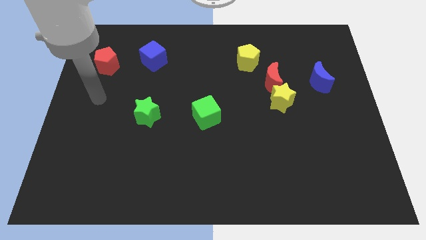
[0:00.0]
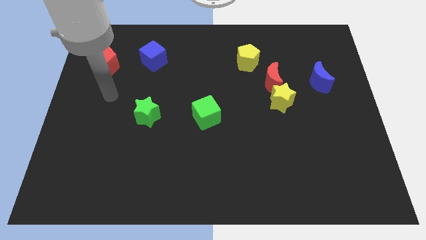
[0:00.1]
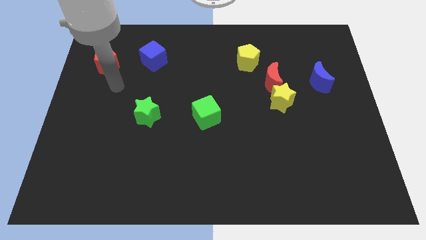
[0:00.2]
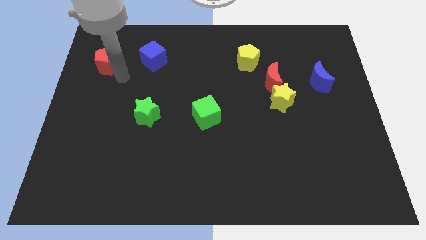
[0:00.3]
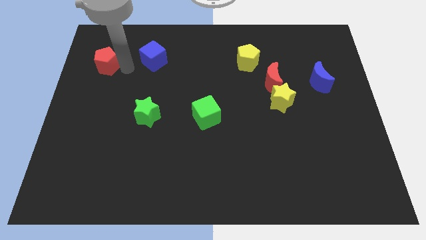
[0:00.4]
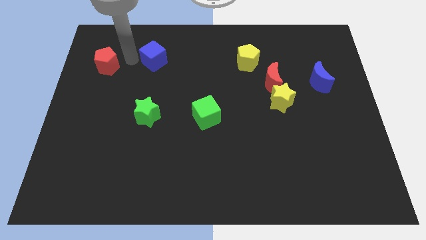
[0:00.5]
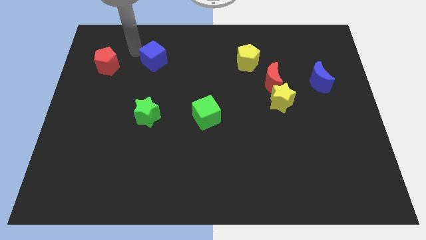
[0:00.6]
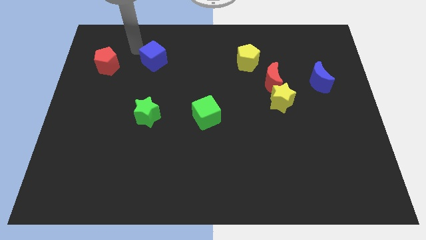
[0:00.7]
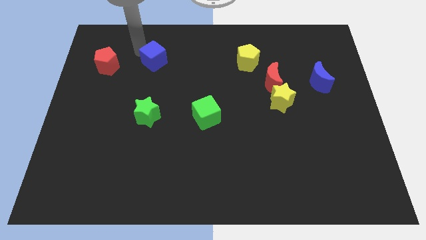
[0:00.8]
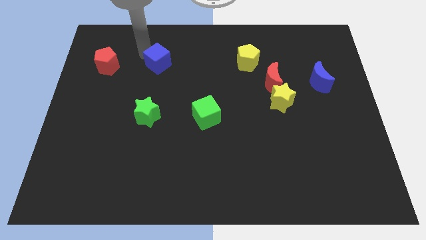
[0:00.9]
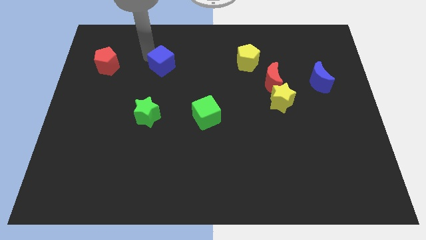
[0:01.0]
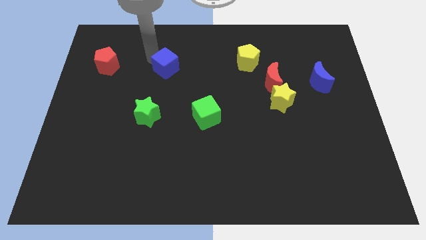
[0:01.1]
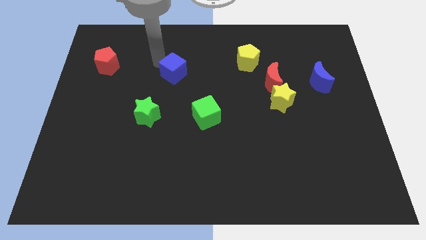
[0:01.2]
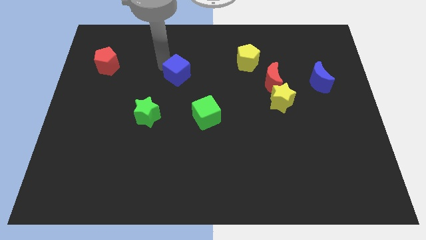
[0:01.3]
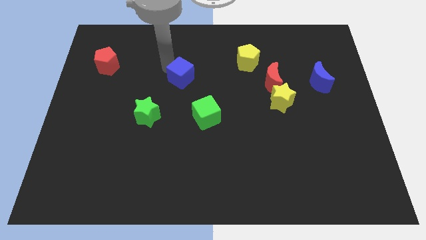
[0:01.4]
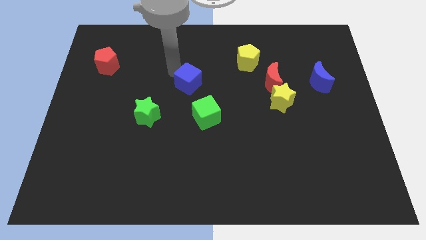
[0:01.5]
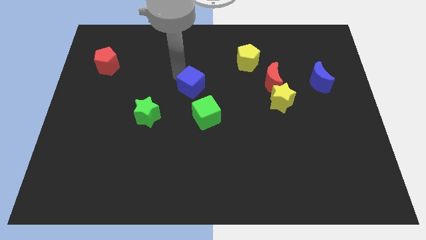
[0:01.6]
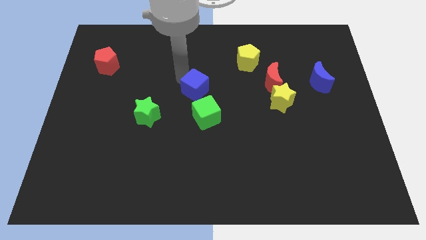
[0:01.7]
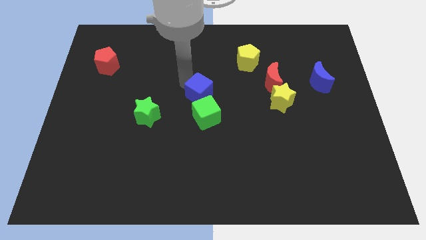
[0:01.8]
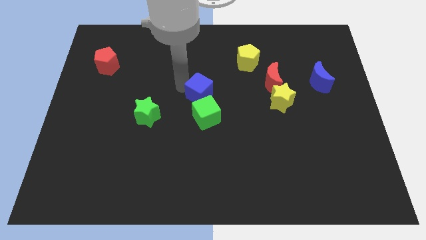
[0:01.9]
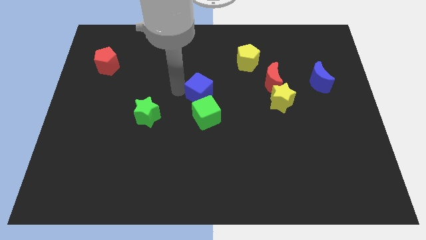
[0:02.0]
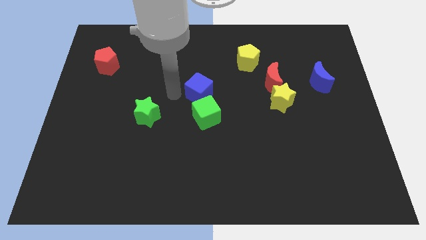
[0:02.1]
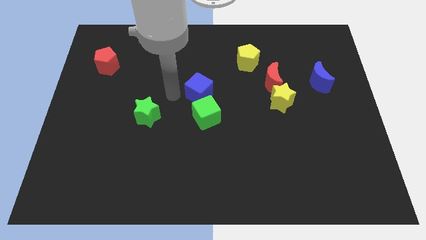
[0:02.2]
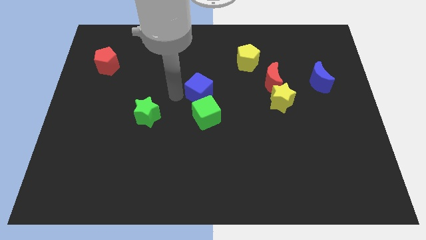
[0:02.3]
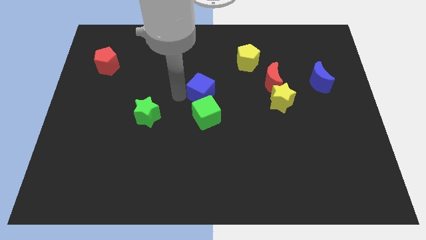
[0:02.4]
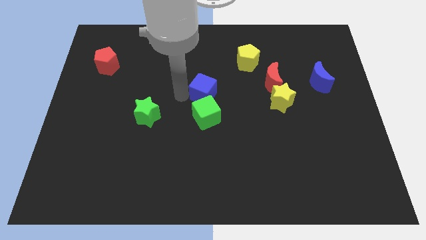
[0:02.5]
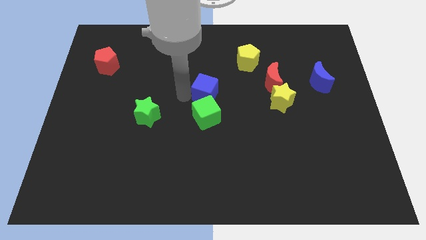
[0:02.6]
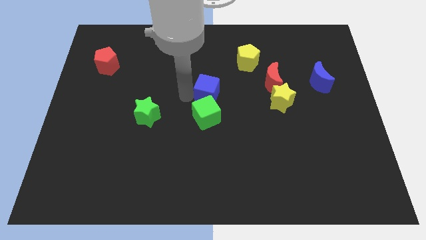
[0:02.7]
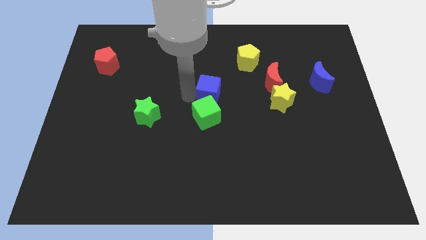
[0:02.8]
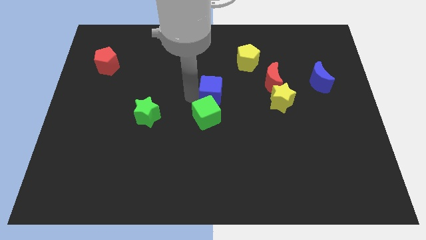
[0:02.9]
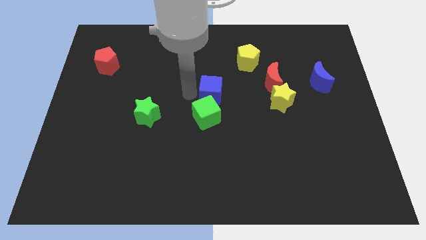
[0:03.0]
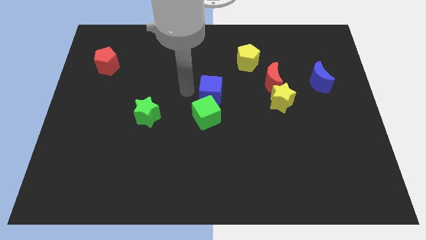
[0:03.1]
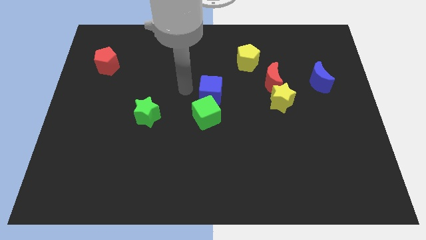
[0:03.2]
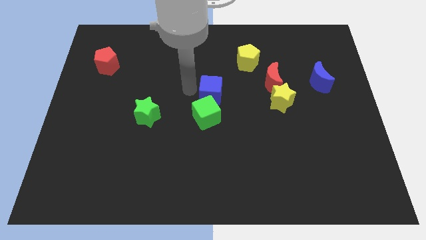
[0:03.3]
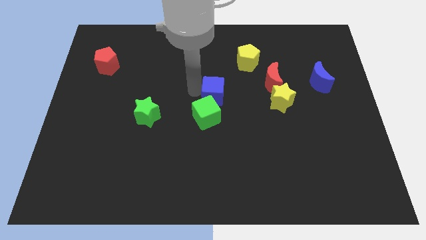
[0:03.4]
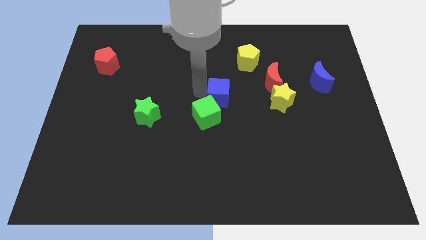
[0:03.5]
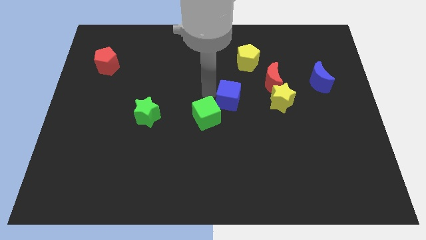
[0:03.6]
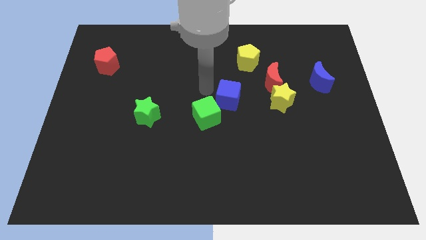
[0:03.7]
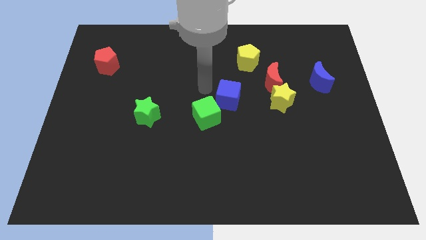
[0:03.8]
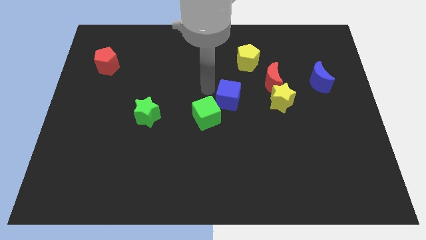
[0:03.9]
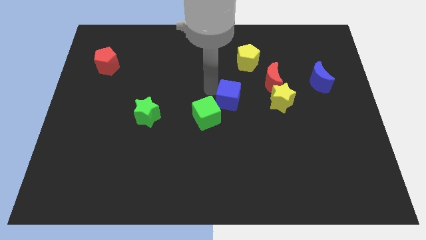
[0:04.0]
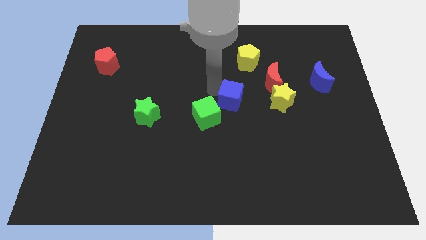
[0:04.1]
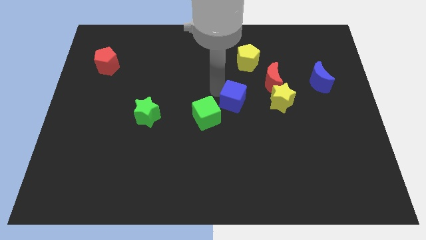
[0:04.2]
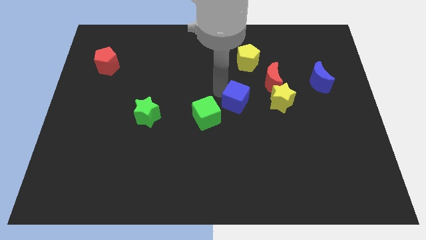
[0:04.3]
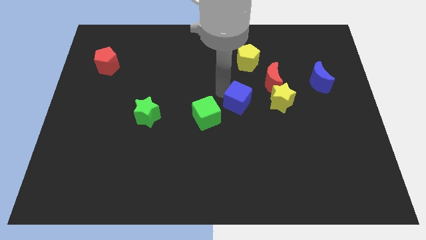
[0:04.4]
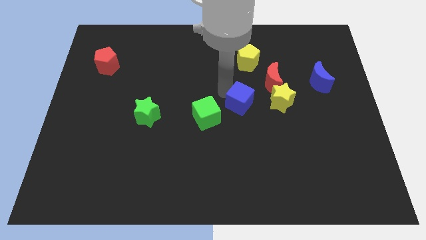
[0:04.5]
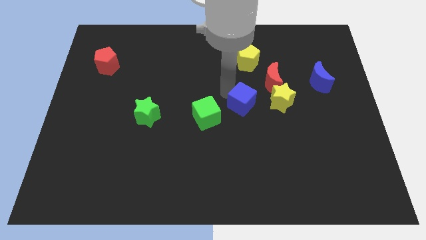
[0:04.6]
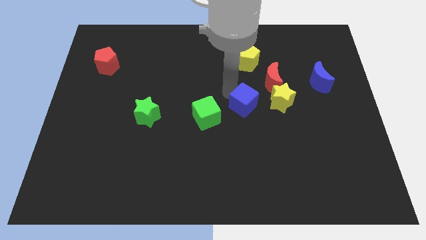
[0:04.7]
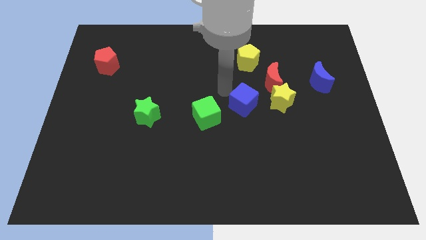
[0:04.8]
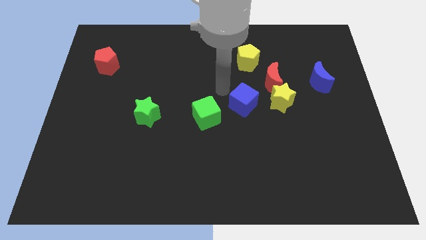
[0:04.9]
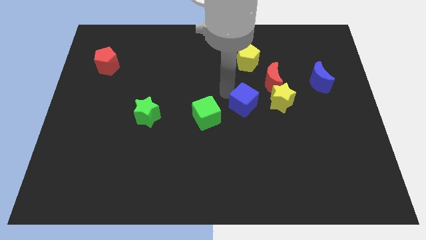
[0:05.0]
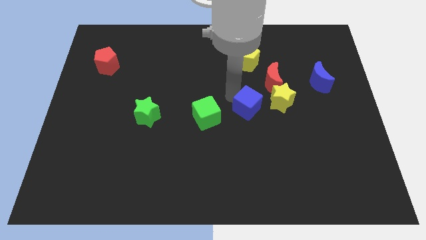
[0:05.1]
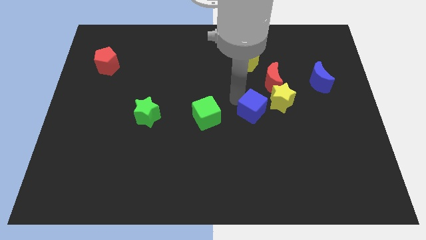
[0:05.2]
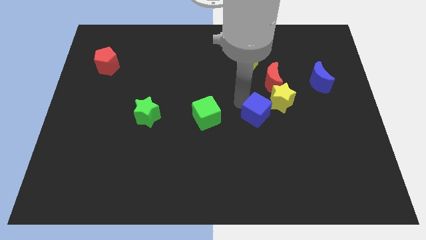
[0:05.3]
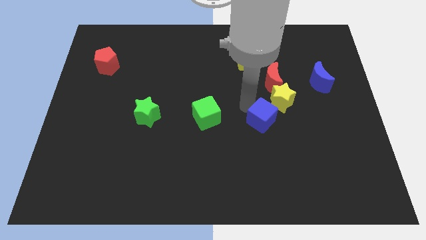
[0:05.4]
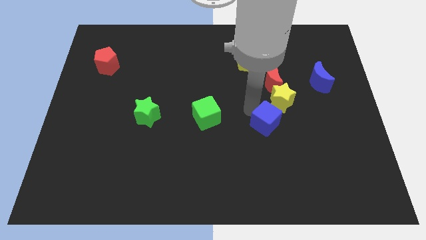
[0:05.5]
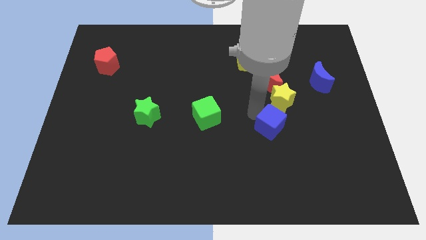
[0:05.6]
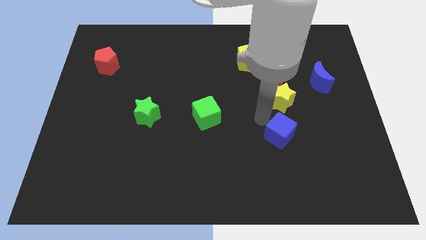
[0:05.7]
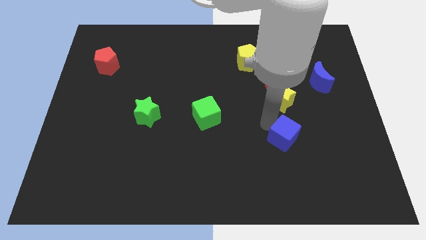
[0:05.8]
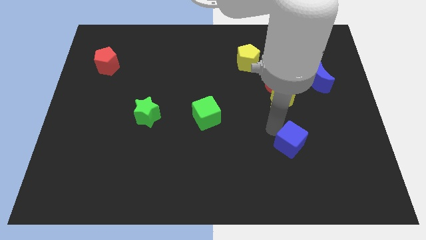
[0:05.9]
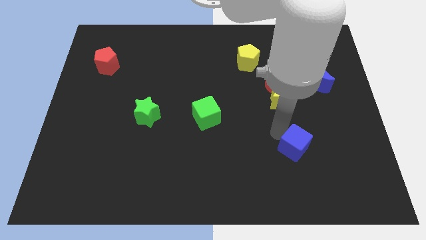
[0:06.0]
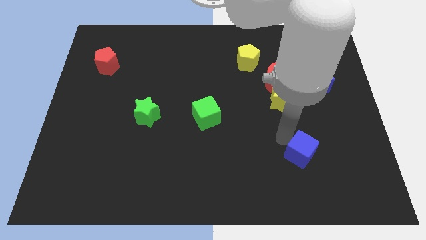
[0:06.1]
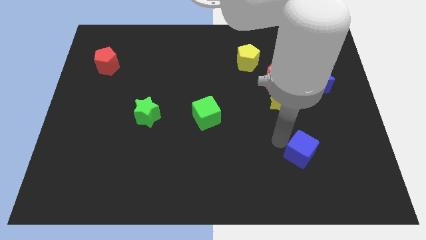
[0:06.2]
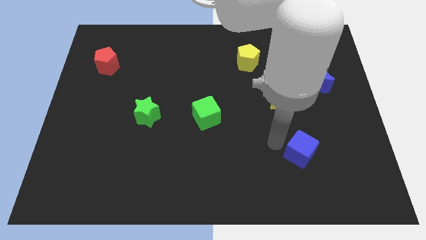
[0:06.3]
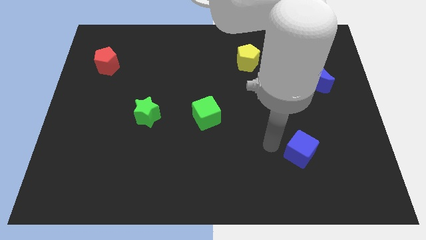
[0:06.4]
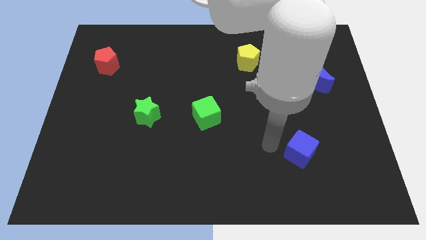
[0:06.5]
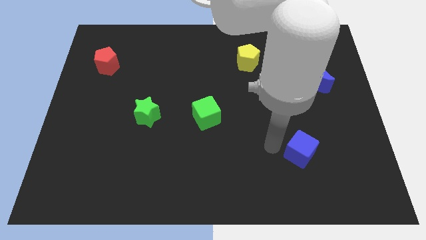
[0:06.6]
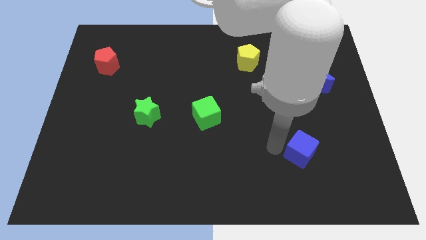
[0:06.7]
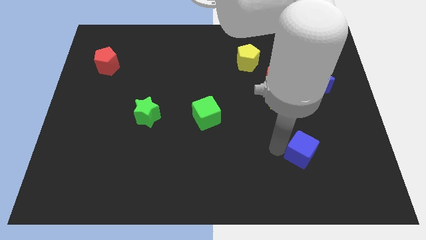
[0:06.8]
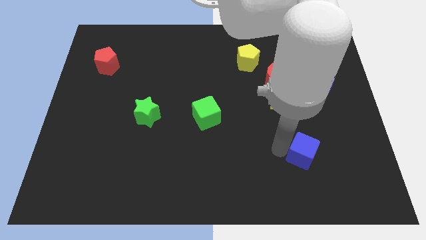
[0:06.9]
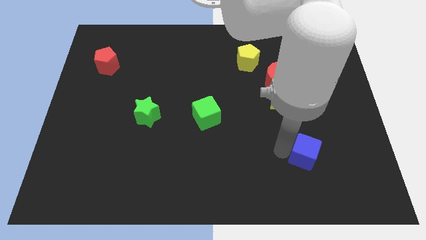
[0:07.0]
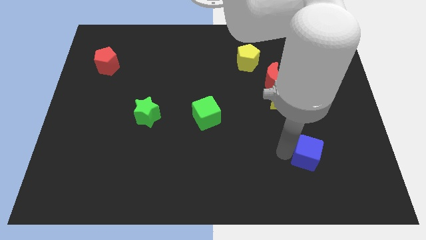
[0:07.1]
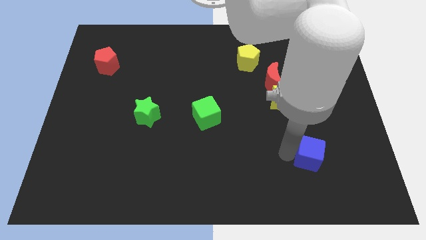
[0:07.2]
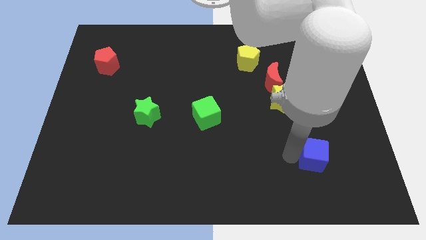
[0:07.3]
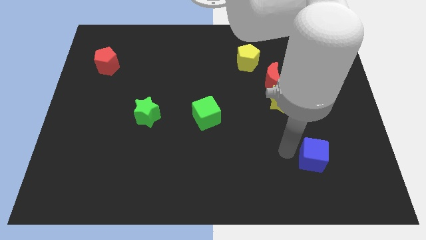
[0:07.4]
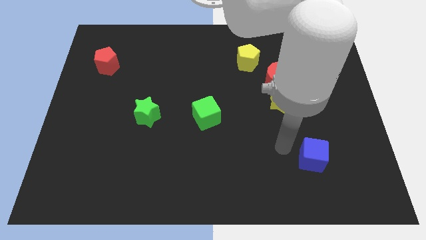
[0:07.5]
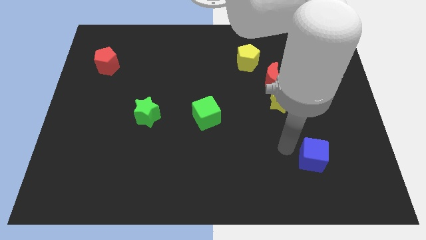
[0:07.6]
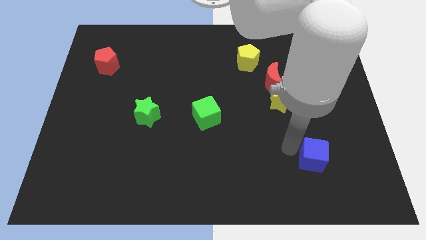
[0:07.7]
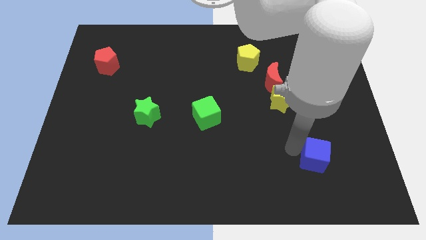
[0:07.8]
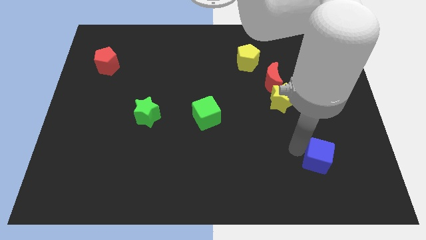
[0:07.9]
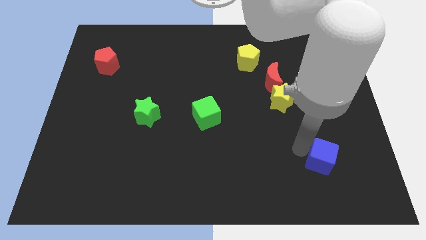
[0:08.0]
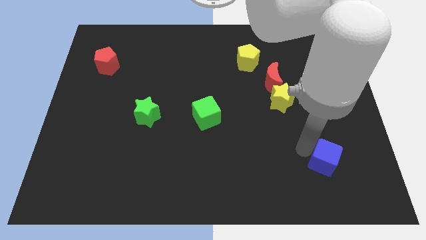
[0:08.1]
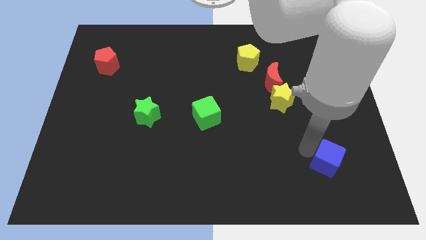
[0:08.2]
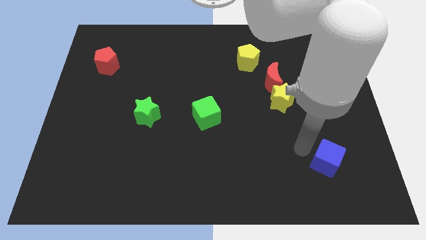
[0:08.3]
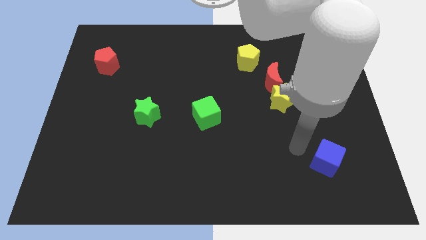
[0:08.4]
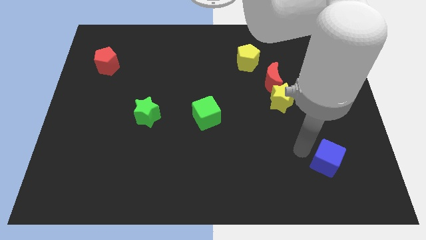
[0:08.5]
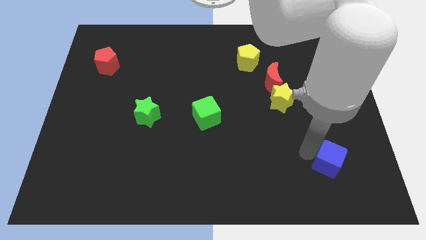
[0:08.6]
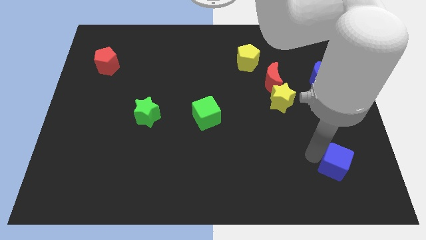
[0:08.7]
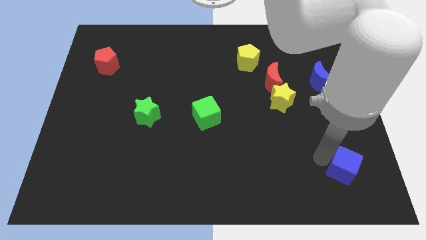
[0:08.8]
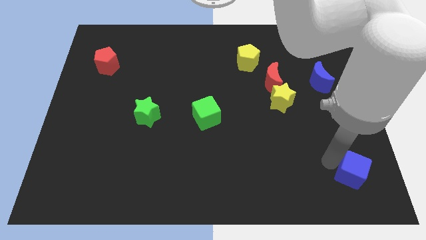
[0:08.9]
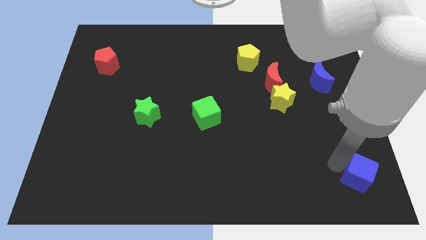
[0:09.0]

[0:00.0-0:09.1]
move the blue cube to the bottom right corner
